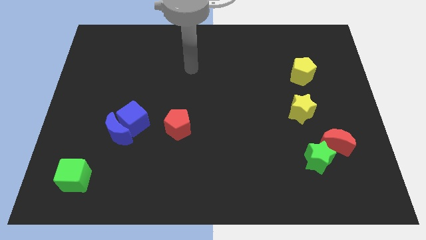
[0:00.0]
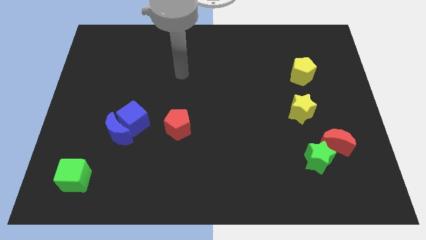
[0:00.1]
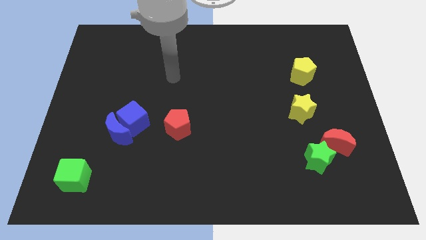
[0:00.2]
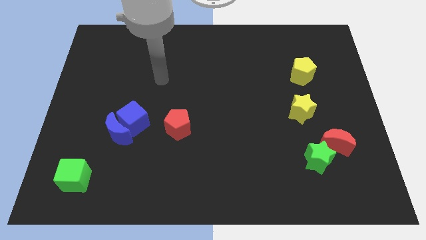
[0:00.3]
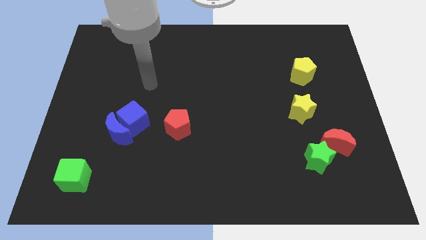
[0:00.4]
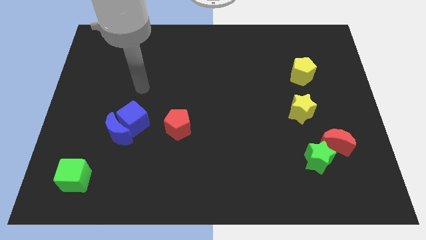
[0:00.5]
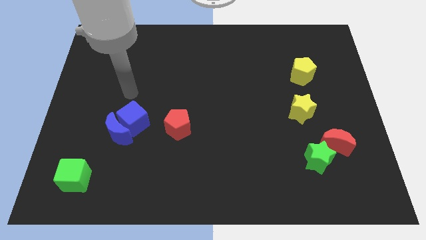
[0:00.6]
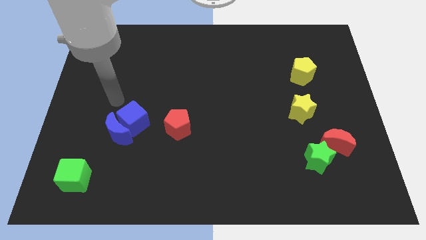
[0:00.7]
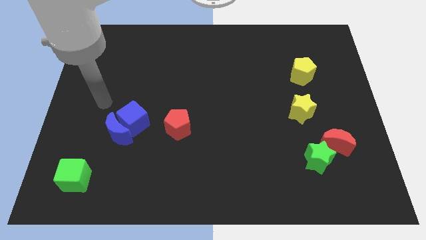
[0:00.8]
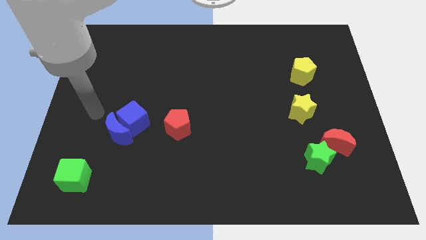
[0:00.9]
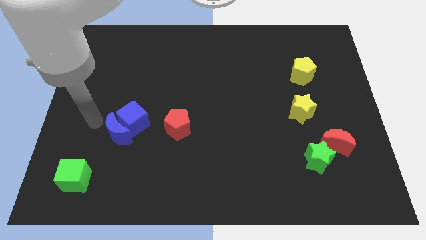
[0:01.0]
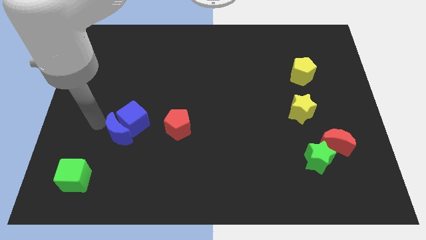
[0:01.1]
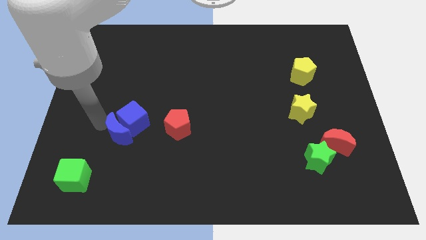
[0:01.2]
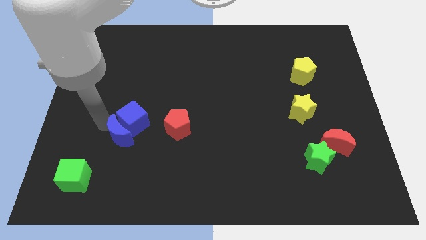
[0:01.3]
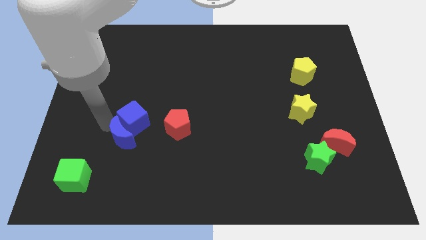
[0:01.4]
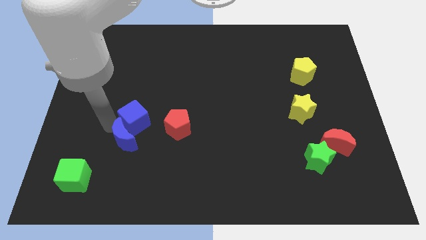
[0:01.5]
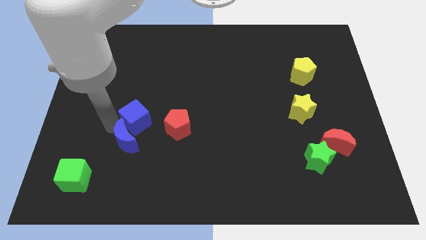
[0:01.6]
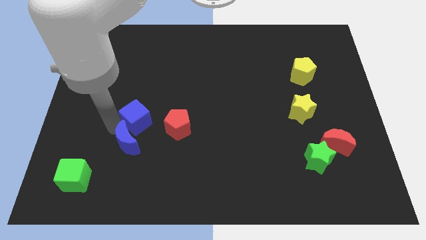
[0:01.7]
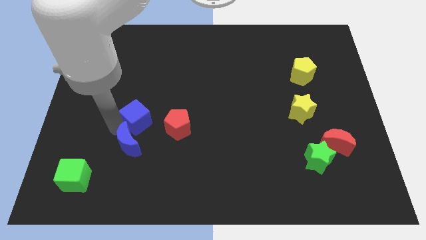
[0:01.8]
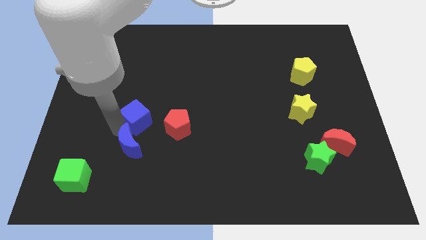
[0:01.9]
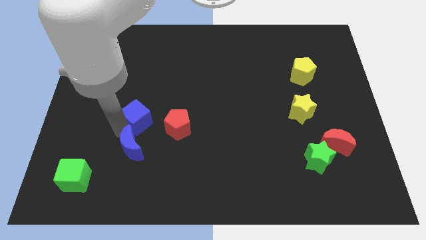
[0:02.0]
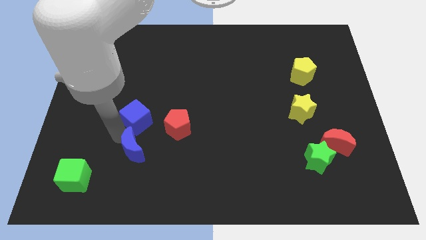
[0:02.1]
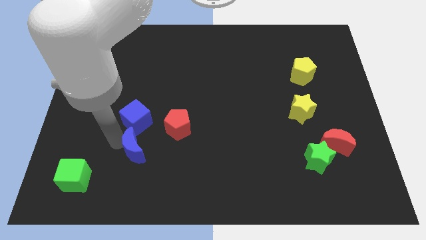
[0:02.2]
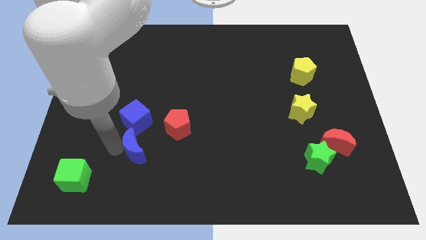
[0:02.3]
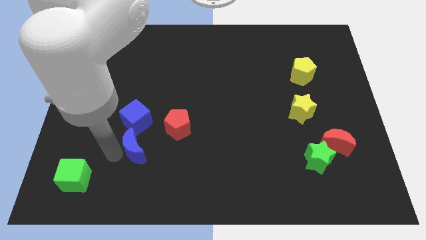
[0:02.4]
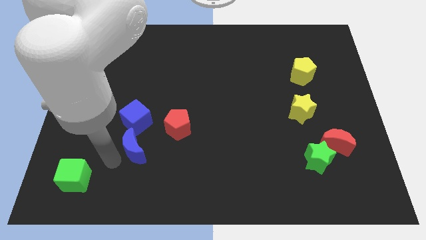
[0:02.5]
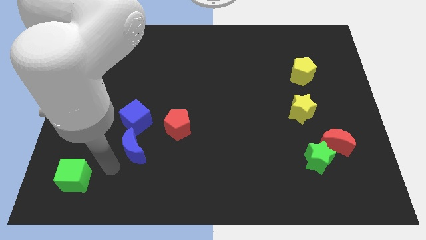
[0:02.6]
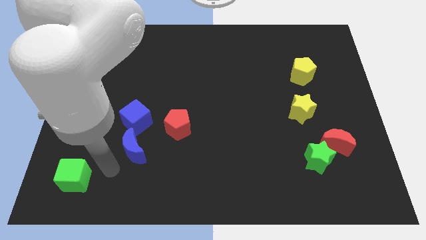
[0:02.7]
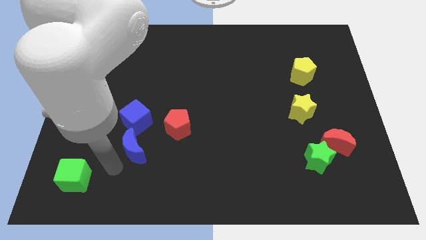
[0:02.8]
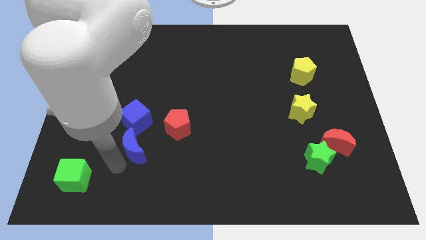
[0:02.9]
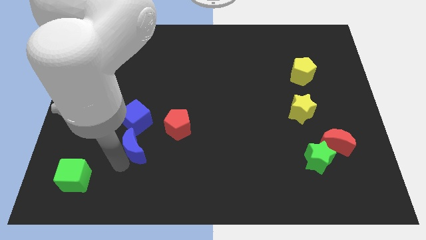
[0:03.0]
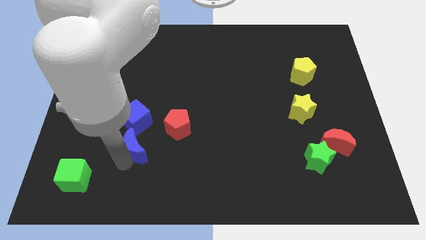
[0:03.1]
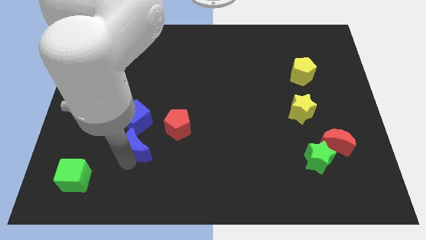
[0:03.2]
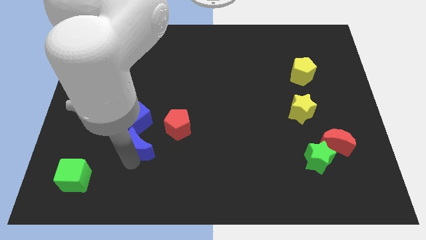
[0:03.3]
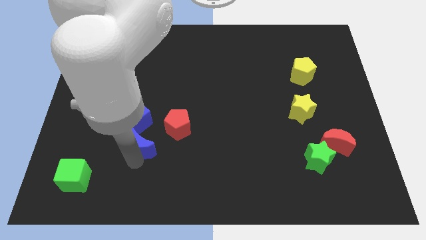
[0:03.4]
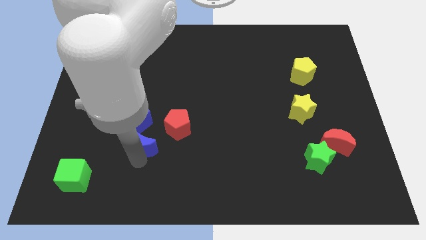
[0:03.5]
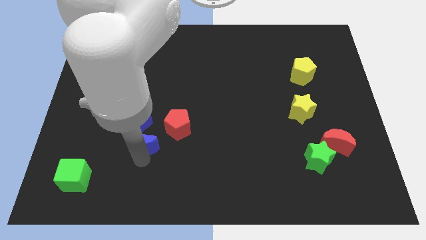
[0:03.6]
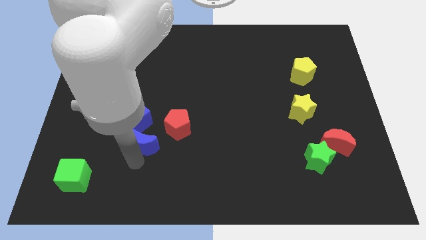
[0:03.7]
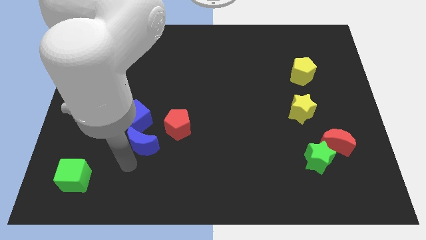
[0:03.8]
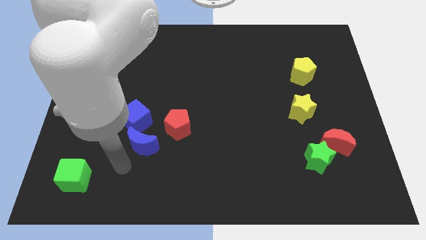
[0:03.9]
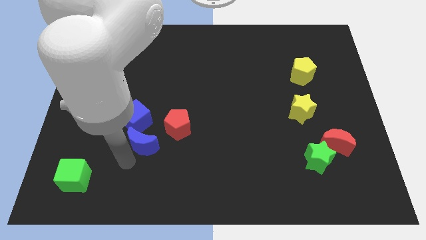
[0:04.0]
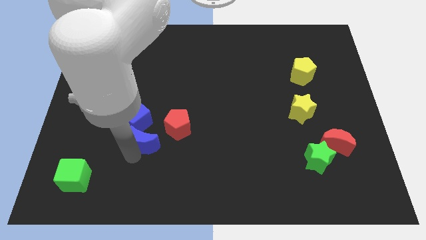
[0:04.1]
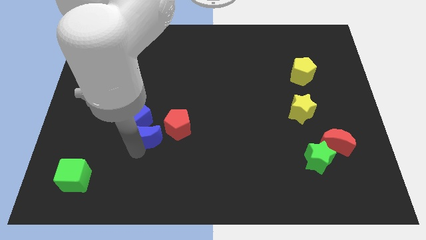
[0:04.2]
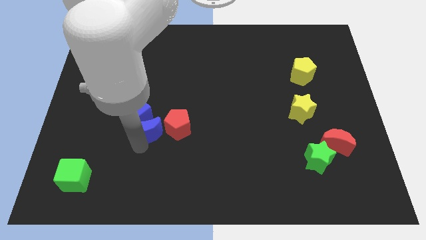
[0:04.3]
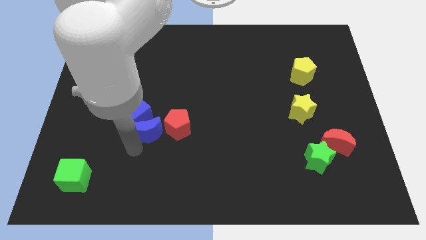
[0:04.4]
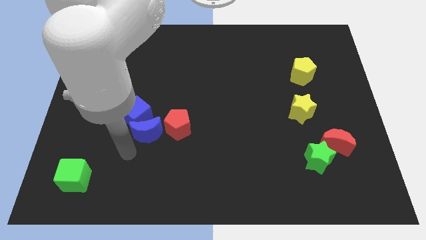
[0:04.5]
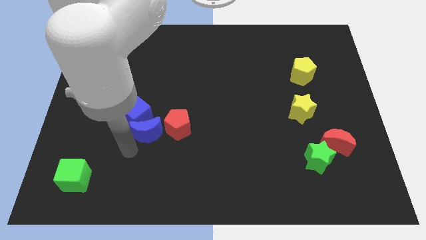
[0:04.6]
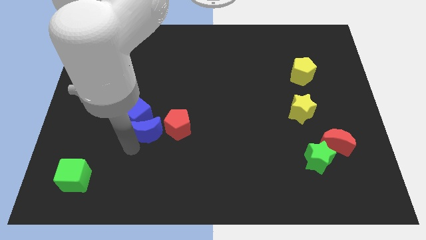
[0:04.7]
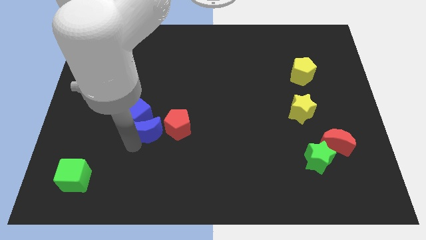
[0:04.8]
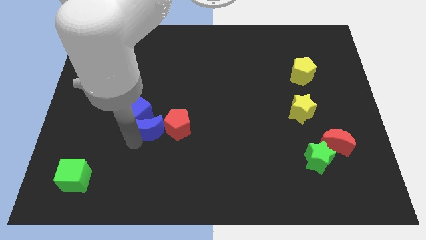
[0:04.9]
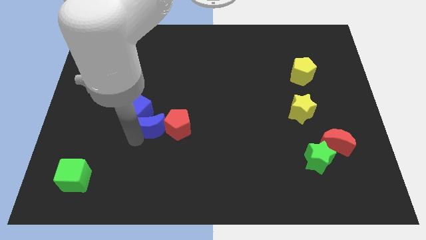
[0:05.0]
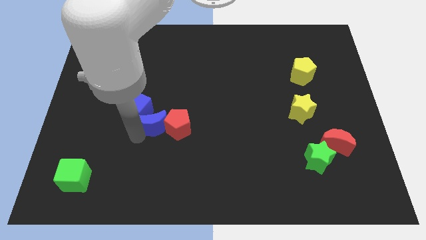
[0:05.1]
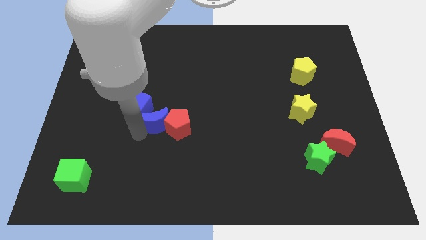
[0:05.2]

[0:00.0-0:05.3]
push the blue moon upwards and then to the right a little

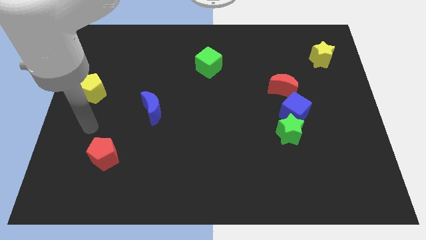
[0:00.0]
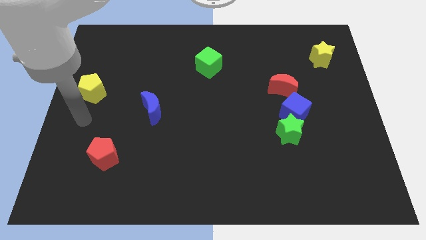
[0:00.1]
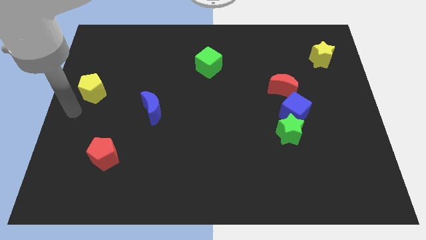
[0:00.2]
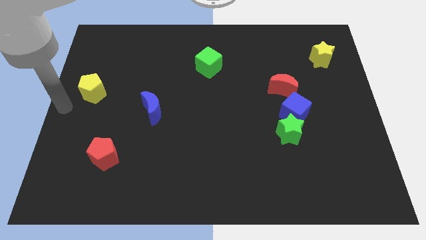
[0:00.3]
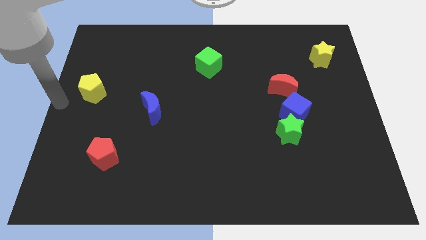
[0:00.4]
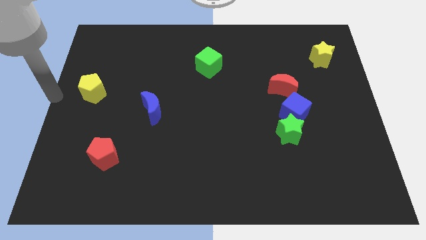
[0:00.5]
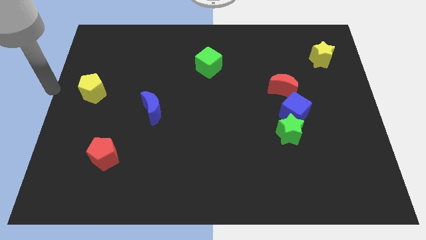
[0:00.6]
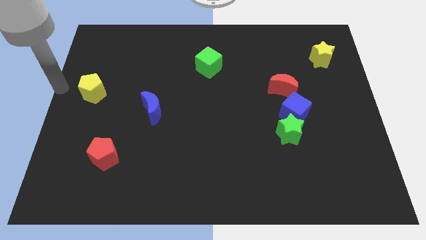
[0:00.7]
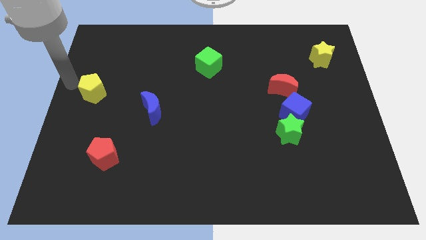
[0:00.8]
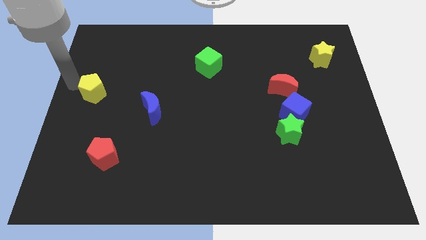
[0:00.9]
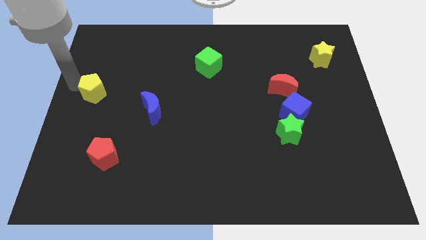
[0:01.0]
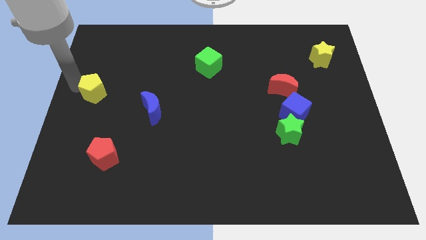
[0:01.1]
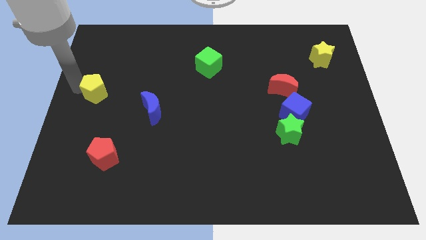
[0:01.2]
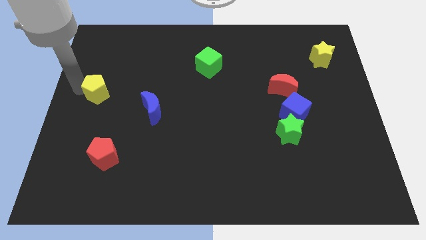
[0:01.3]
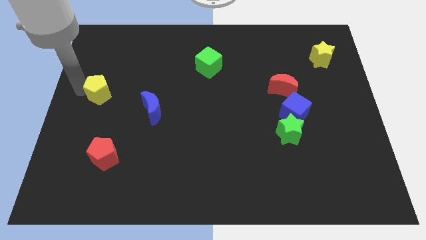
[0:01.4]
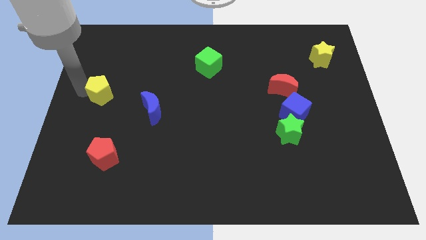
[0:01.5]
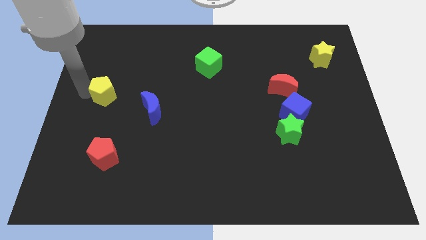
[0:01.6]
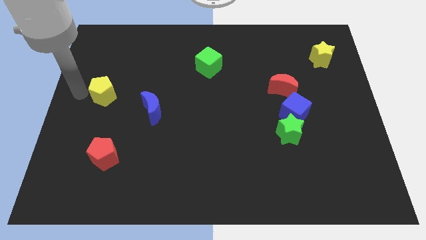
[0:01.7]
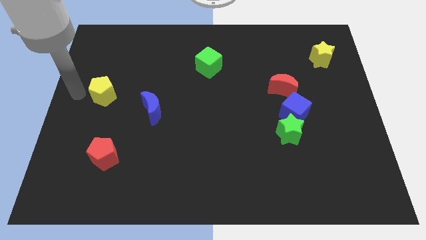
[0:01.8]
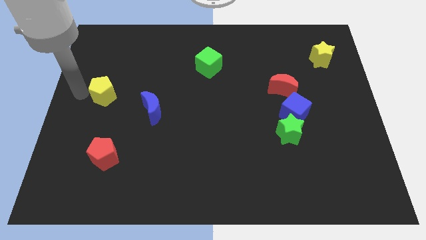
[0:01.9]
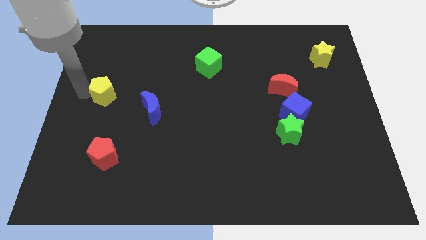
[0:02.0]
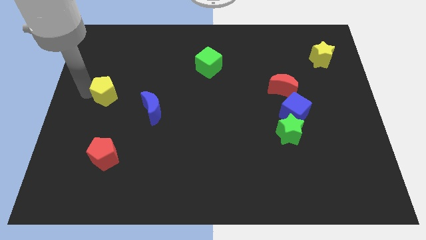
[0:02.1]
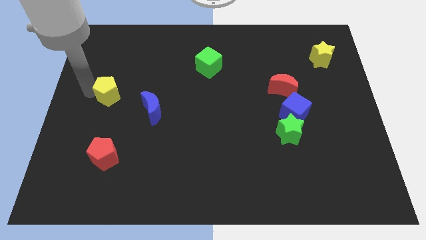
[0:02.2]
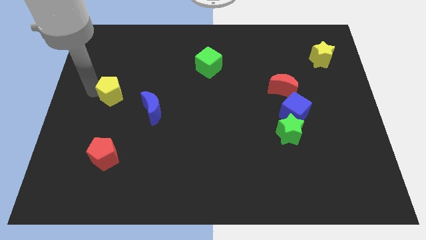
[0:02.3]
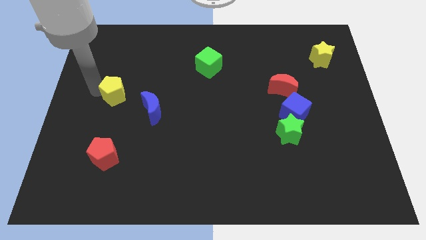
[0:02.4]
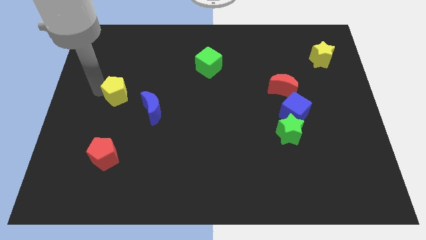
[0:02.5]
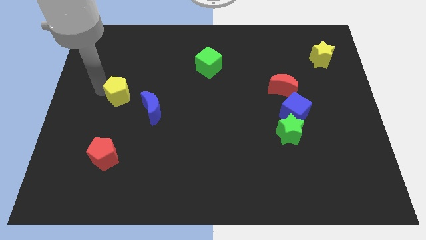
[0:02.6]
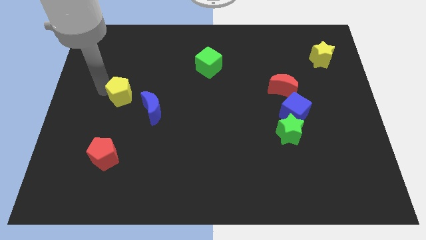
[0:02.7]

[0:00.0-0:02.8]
push the yellow pentagon a little right
